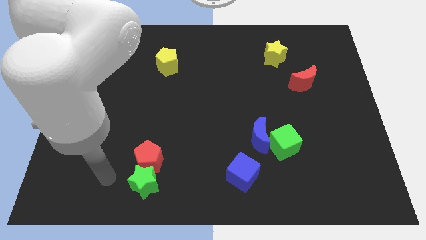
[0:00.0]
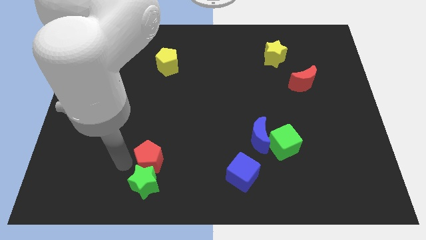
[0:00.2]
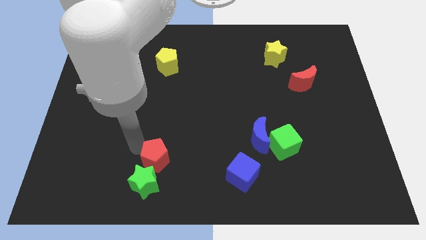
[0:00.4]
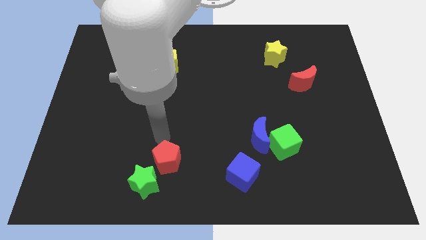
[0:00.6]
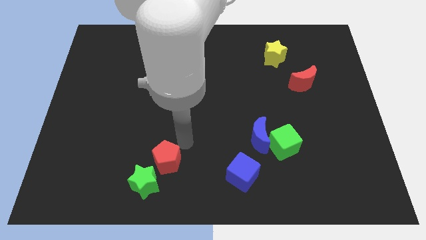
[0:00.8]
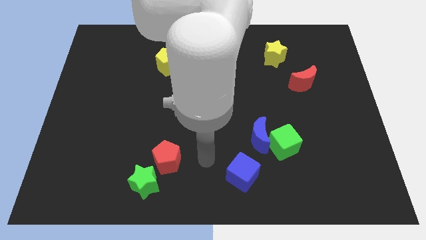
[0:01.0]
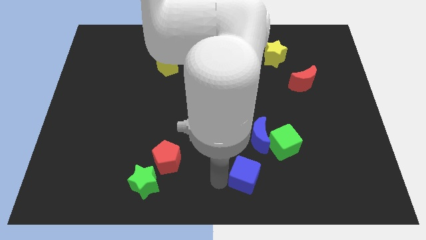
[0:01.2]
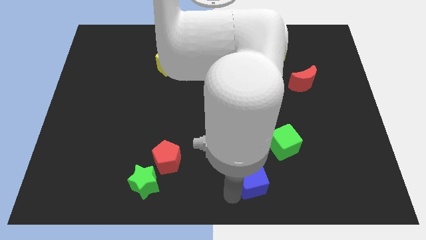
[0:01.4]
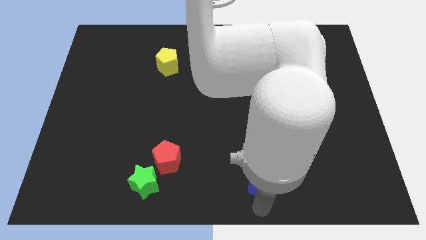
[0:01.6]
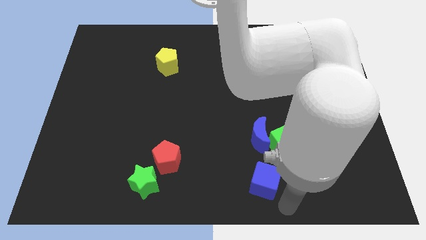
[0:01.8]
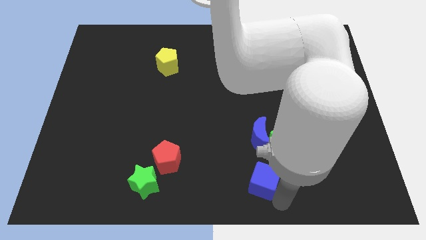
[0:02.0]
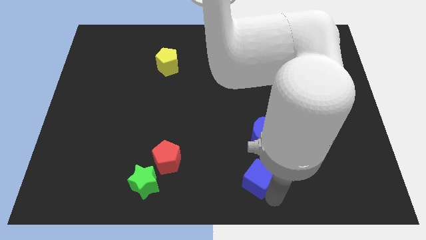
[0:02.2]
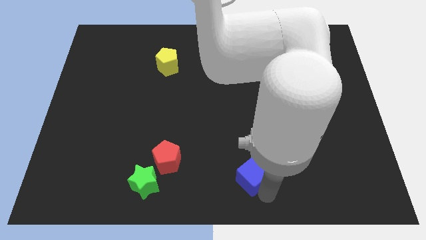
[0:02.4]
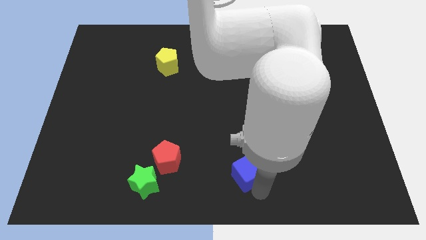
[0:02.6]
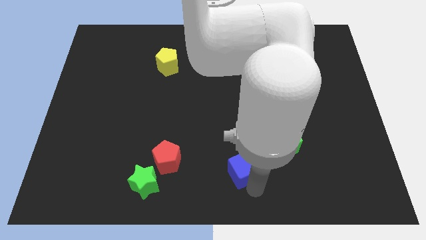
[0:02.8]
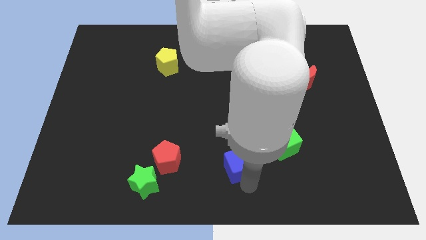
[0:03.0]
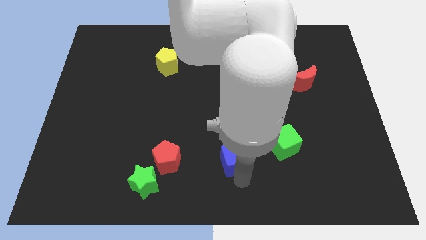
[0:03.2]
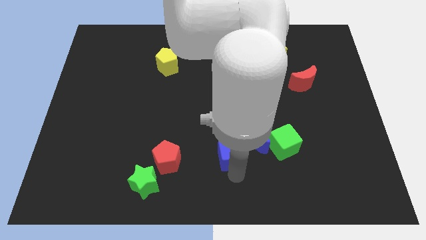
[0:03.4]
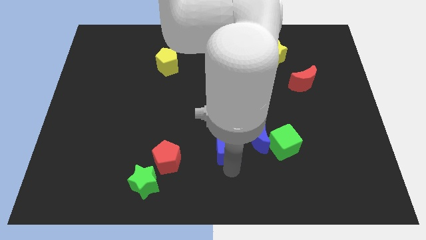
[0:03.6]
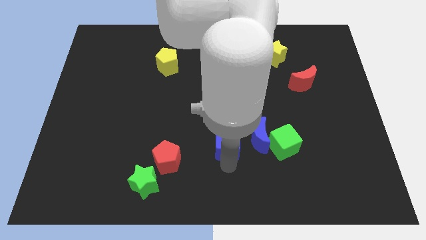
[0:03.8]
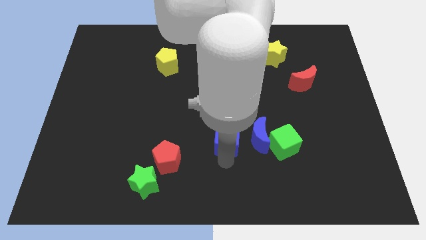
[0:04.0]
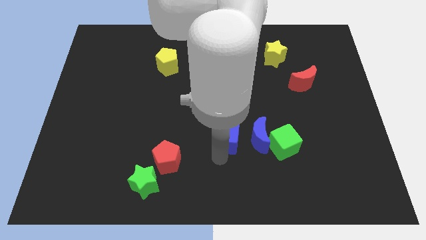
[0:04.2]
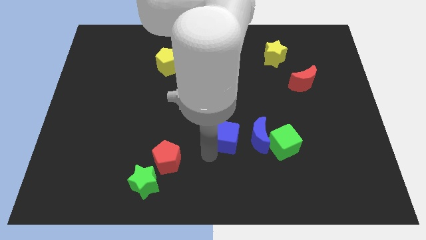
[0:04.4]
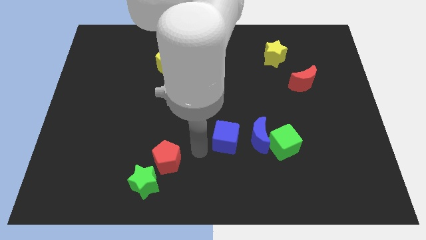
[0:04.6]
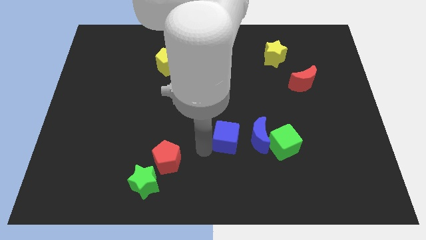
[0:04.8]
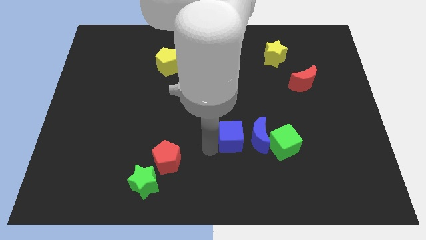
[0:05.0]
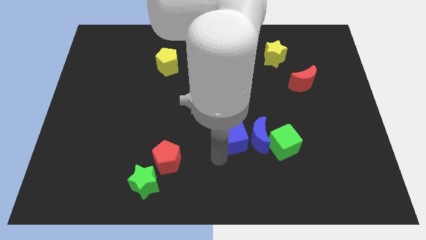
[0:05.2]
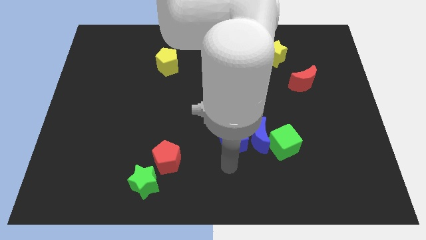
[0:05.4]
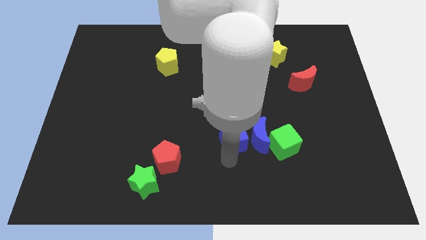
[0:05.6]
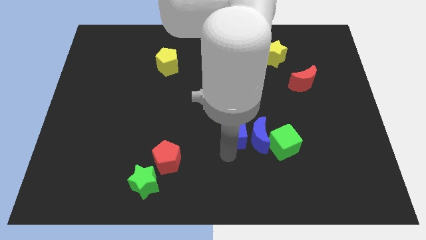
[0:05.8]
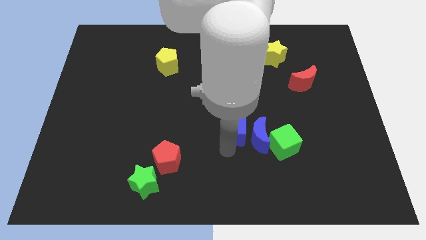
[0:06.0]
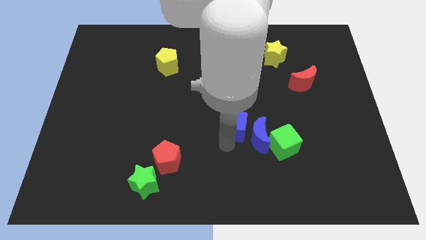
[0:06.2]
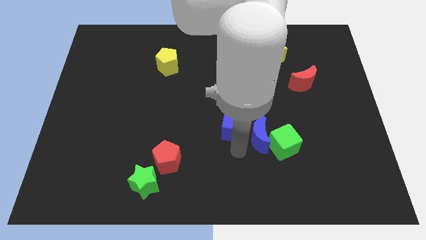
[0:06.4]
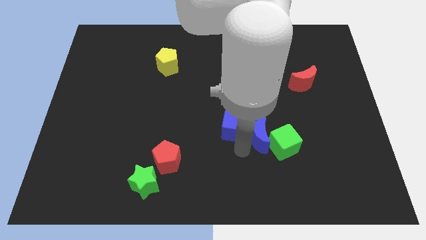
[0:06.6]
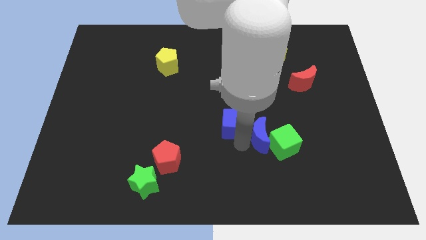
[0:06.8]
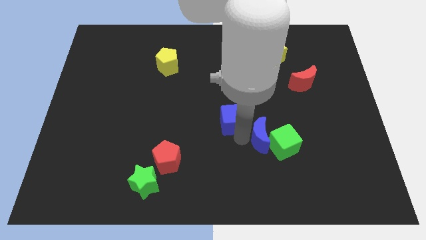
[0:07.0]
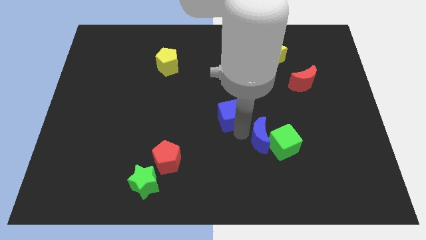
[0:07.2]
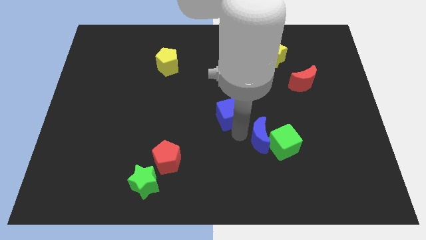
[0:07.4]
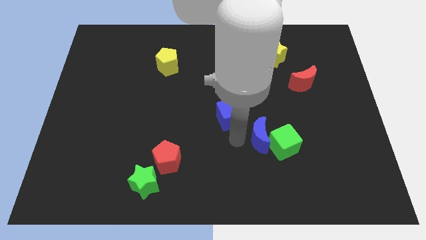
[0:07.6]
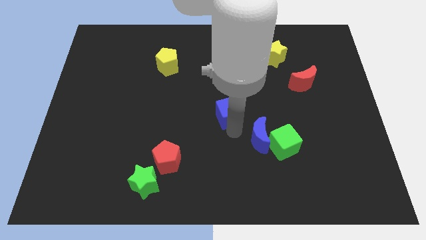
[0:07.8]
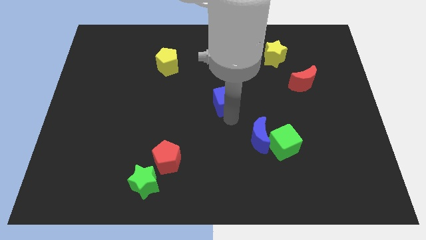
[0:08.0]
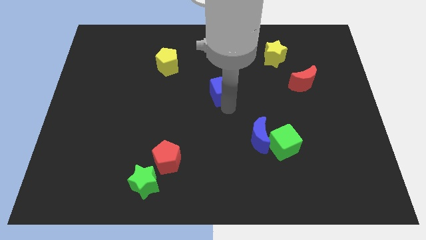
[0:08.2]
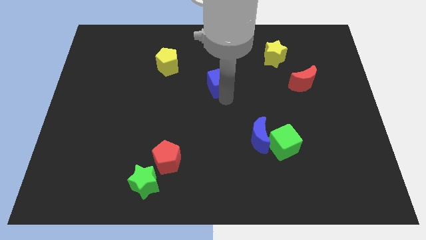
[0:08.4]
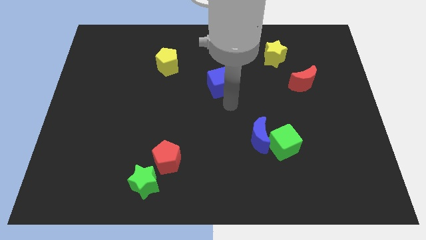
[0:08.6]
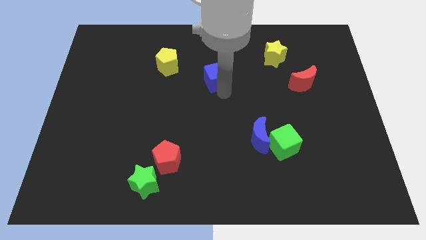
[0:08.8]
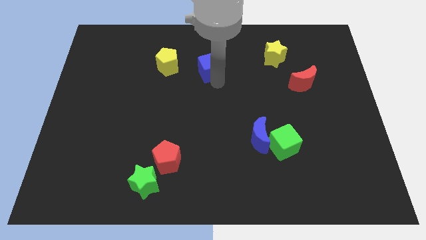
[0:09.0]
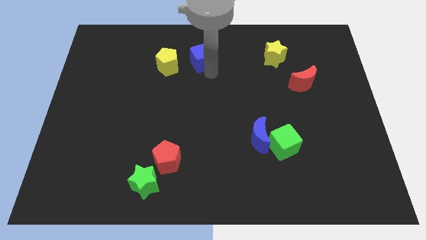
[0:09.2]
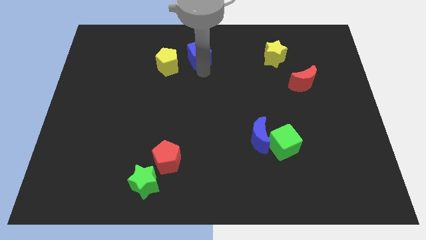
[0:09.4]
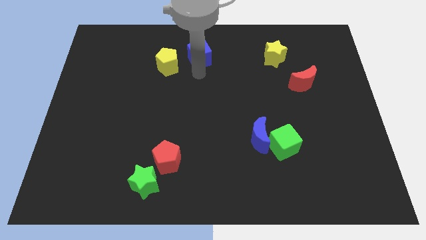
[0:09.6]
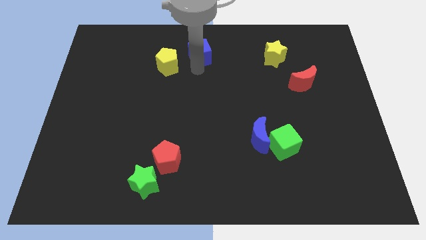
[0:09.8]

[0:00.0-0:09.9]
push the blue cube to the top side

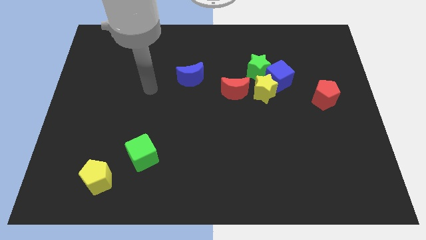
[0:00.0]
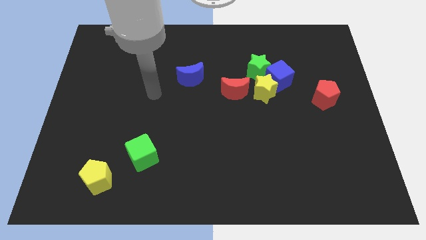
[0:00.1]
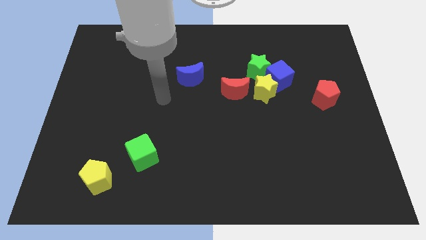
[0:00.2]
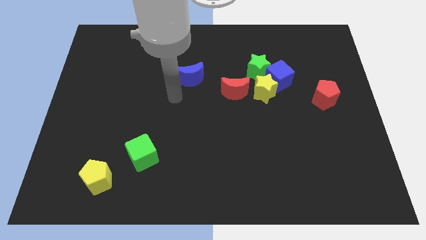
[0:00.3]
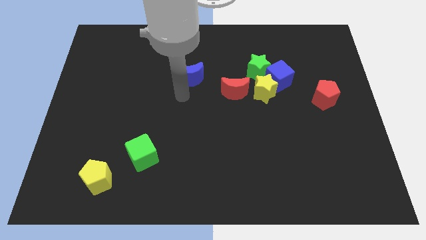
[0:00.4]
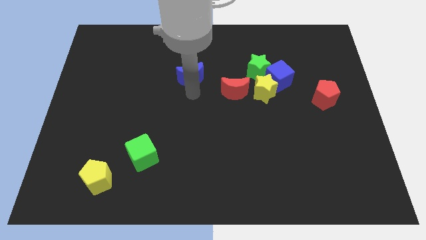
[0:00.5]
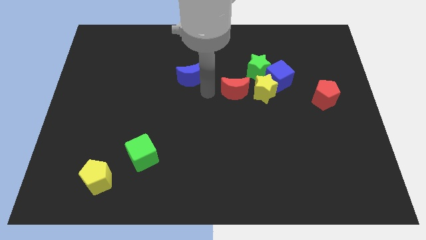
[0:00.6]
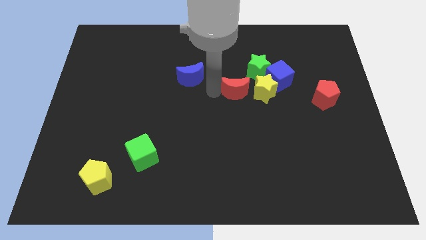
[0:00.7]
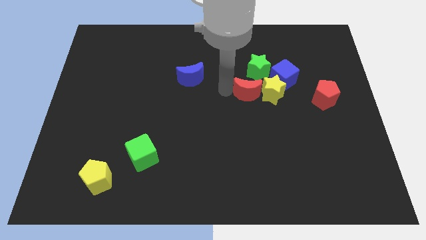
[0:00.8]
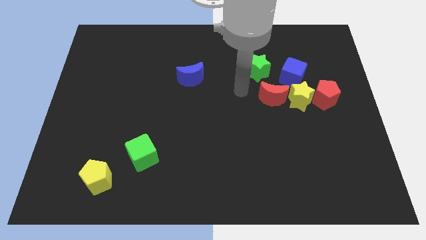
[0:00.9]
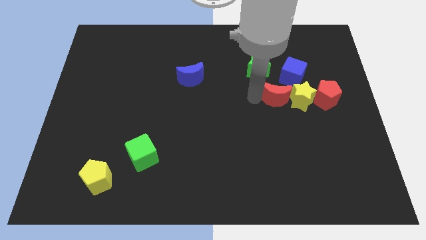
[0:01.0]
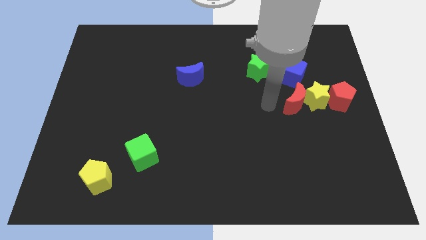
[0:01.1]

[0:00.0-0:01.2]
move the yellow star to the center right
